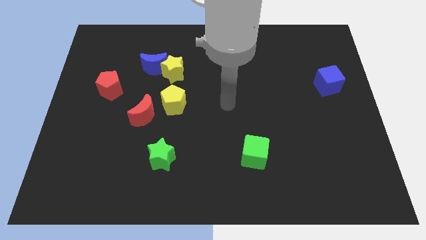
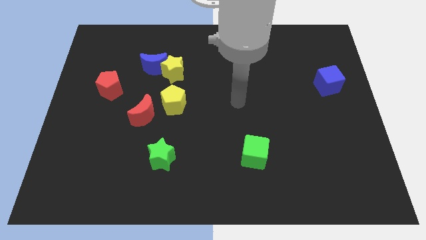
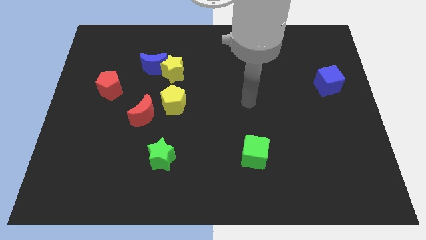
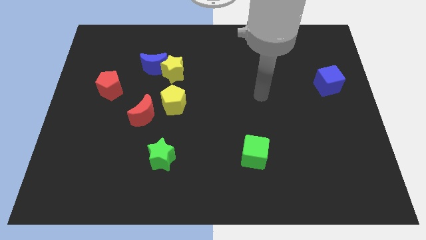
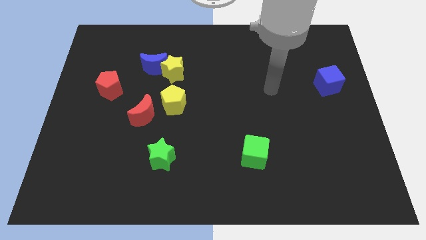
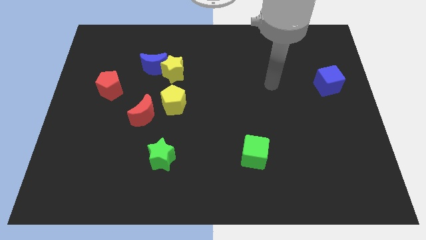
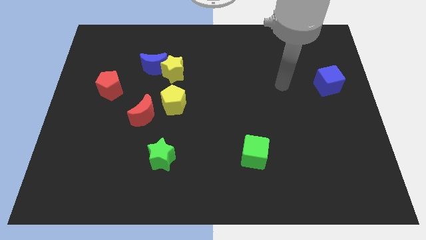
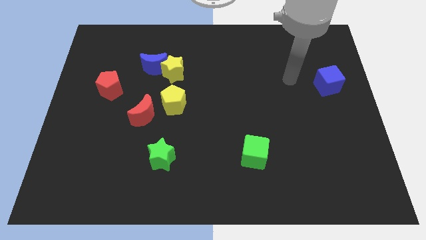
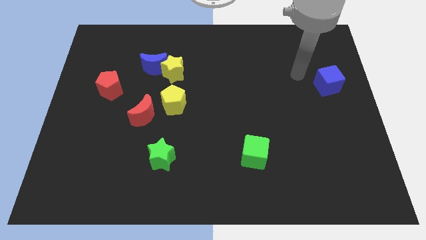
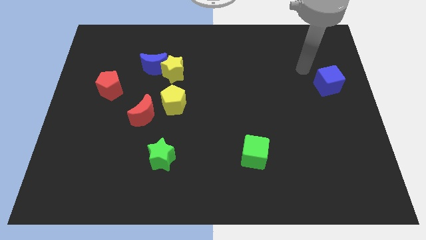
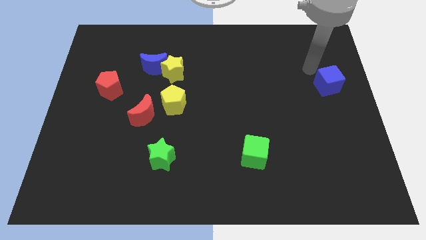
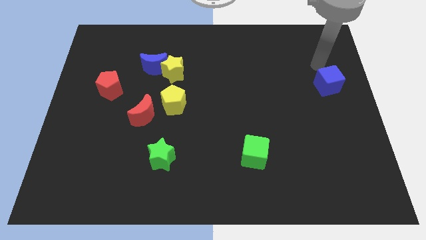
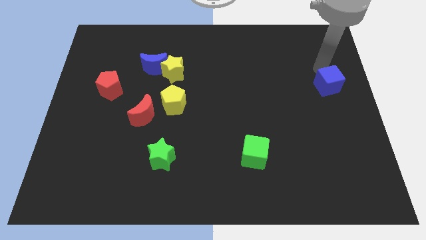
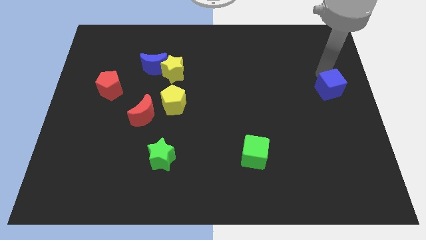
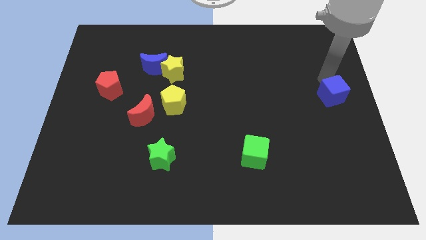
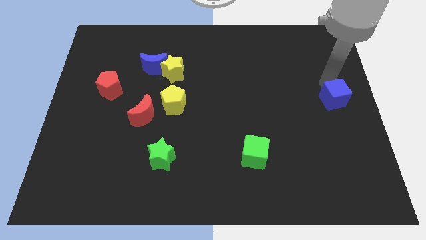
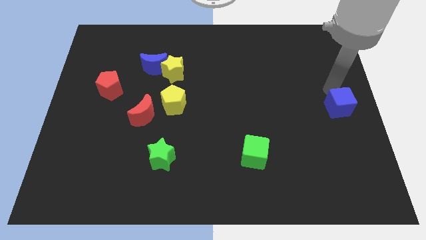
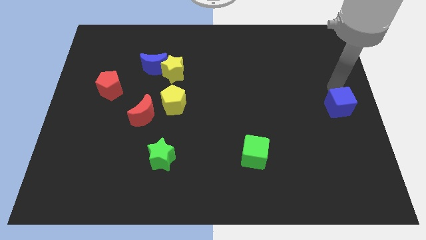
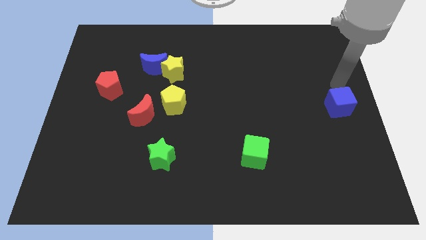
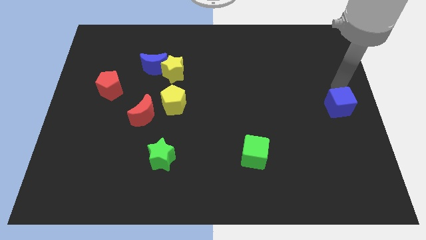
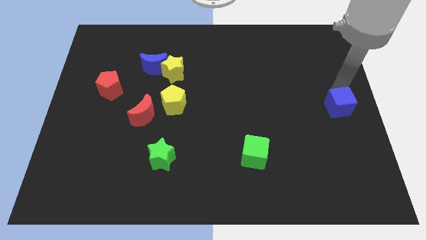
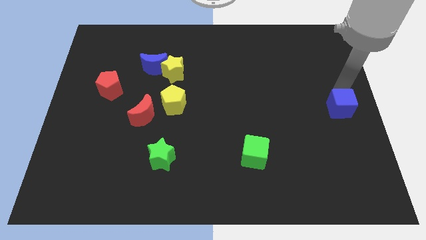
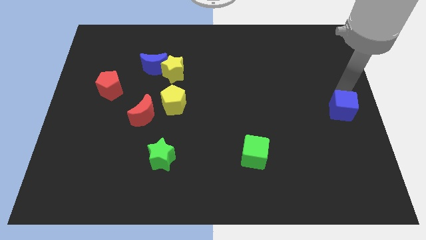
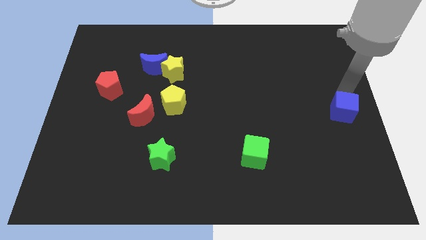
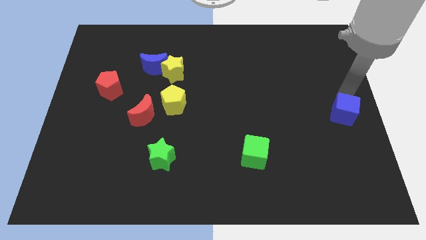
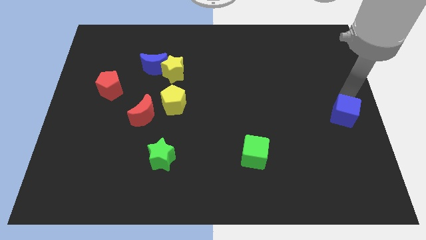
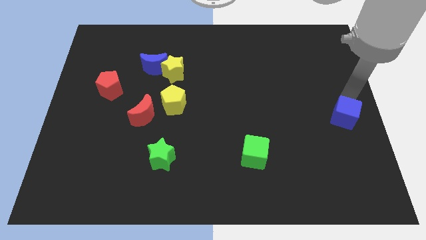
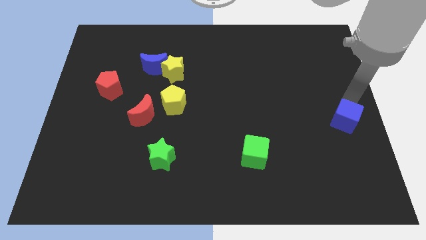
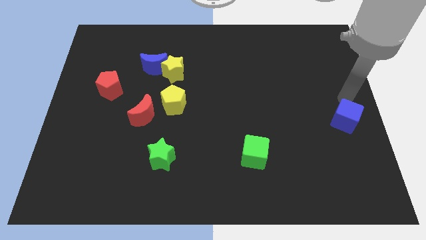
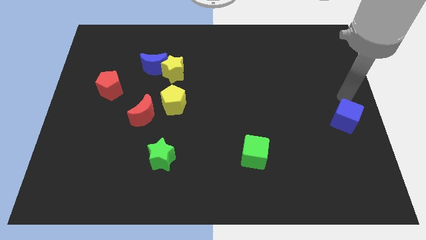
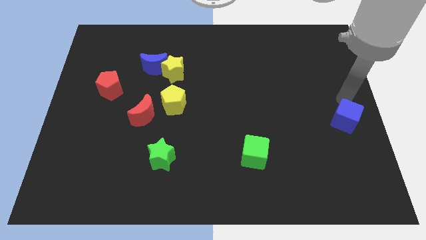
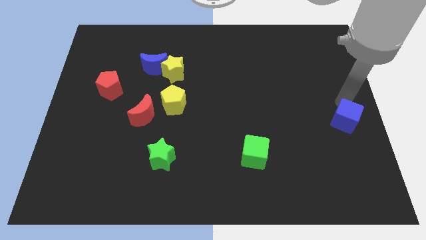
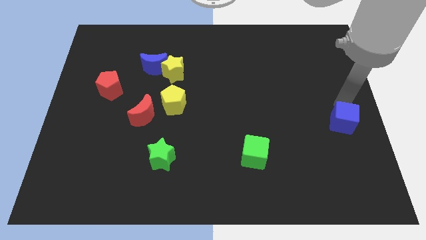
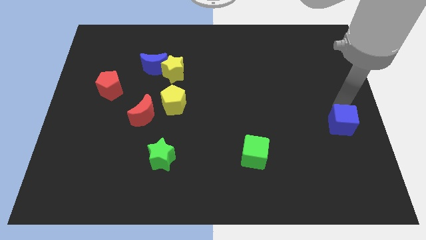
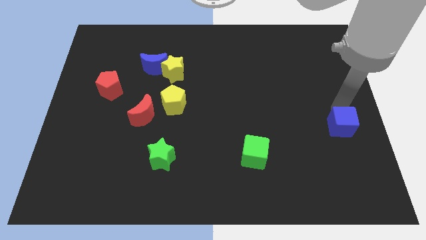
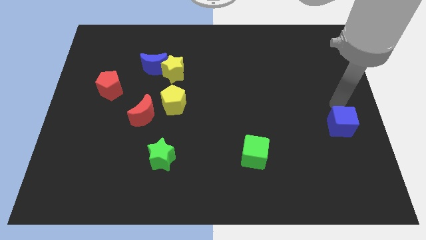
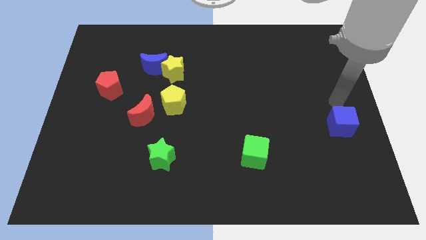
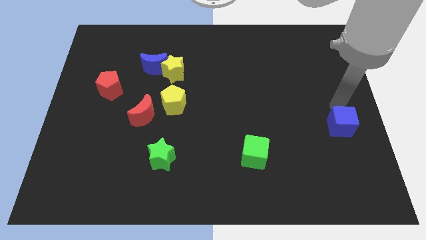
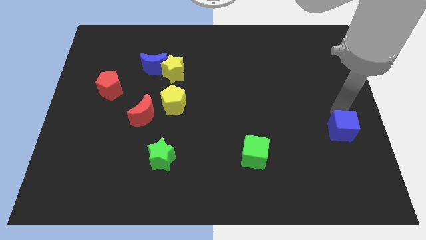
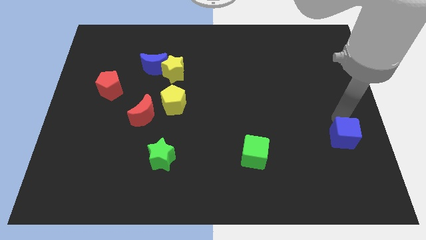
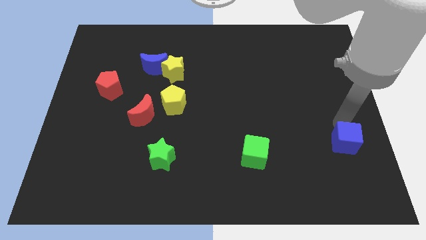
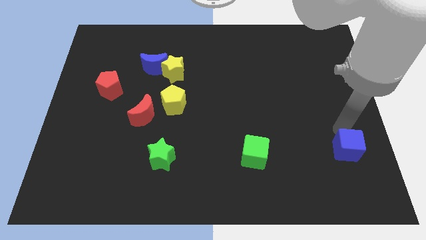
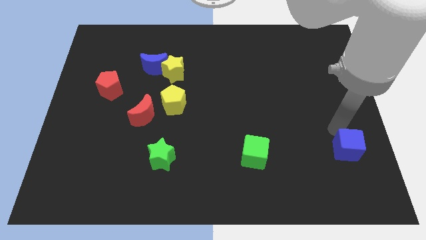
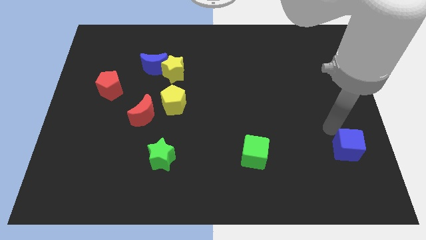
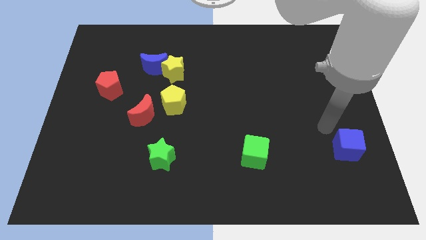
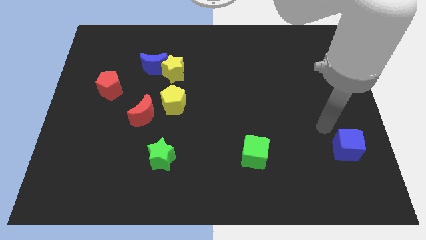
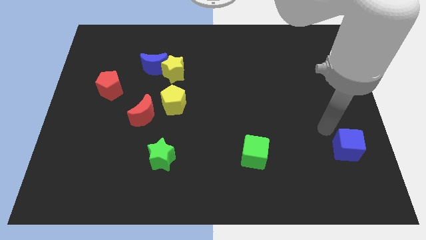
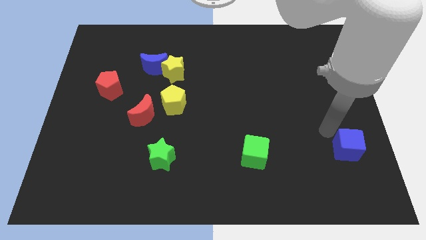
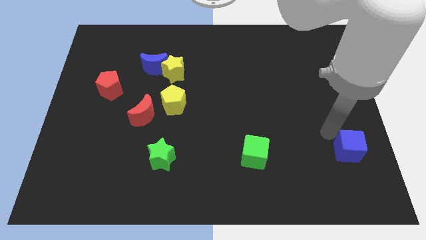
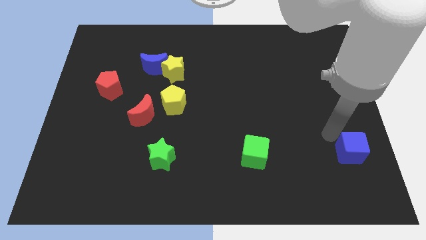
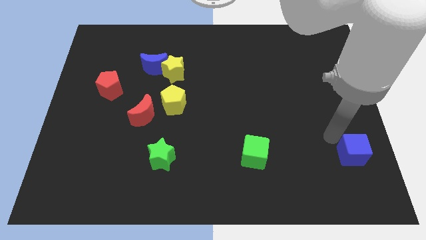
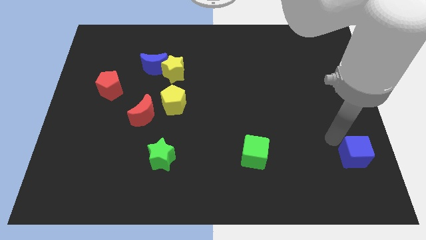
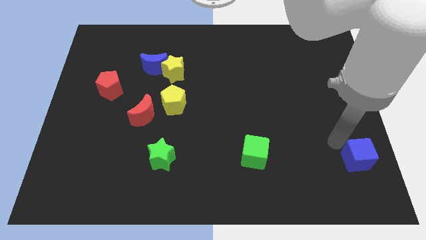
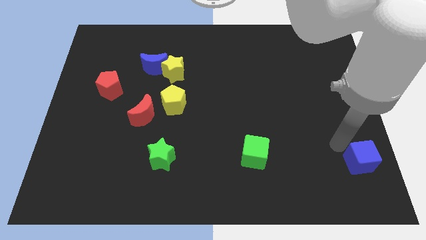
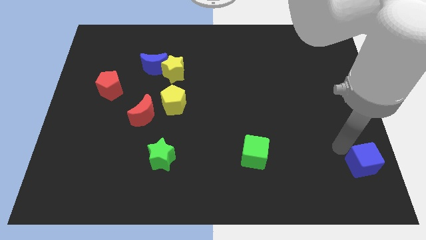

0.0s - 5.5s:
slide the blue cube to the bottom right

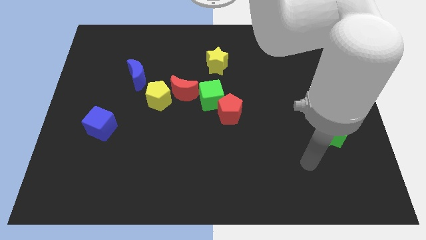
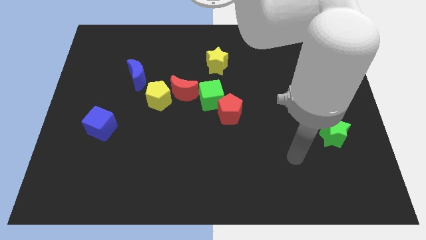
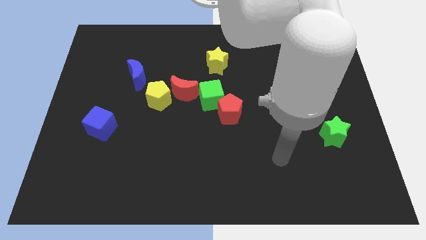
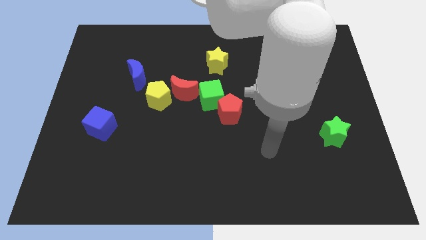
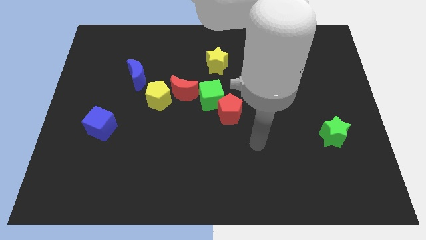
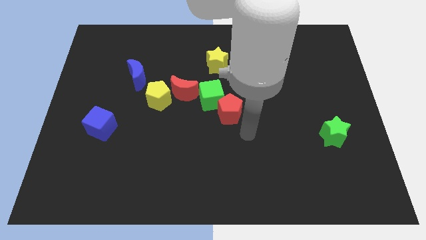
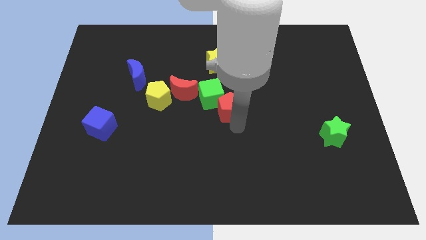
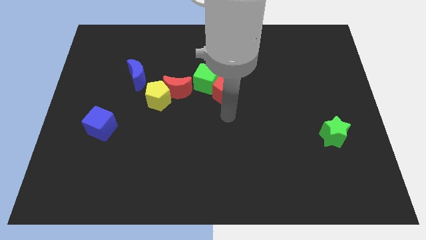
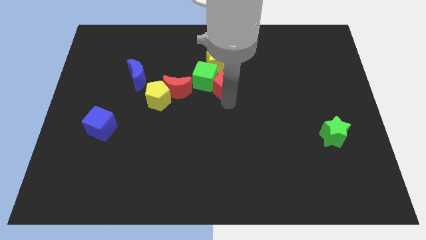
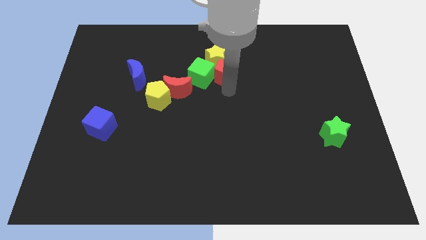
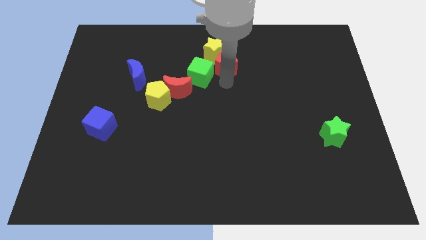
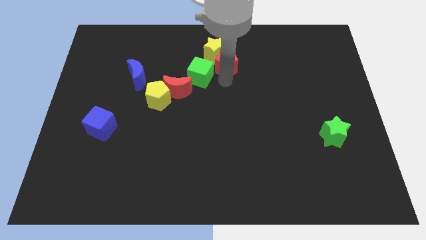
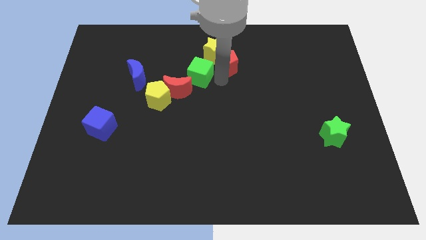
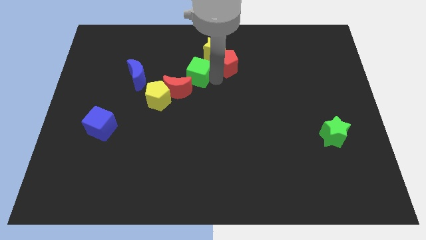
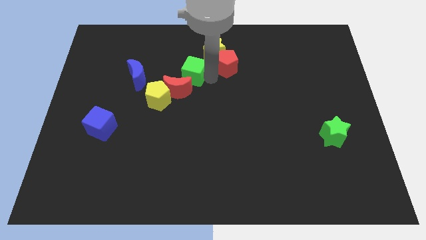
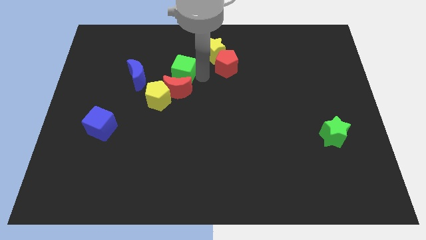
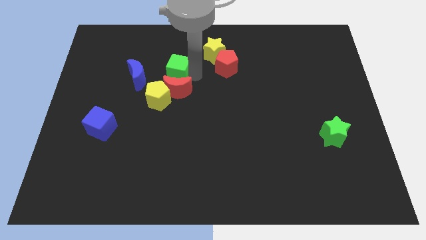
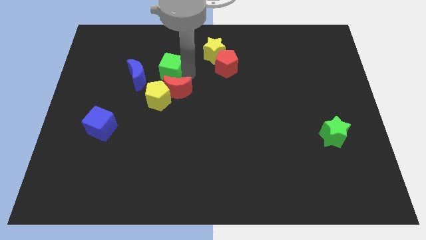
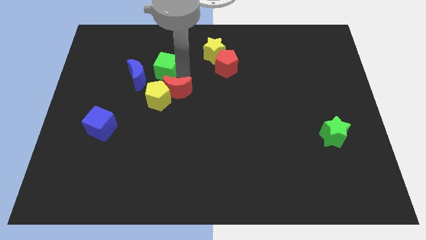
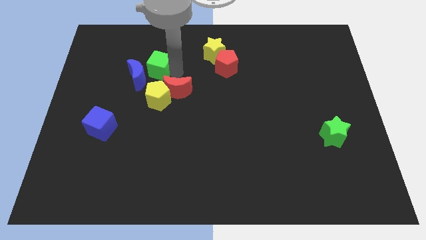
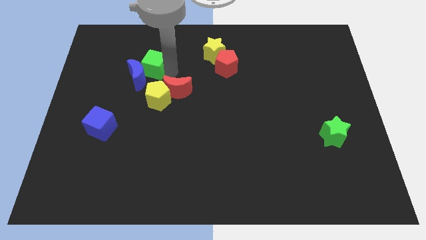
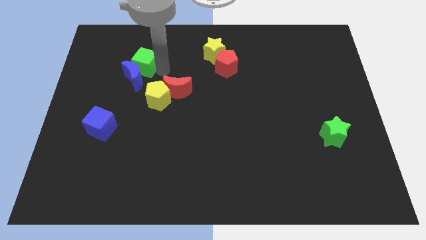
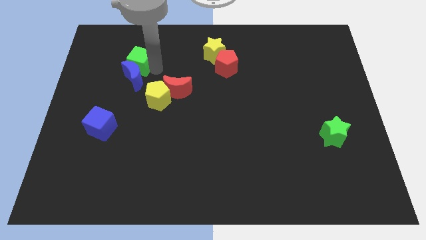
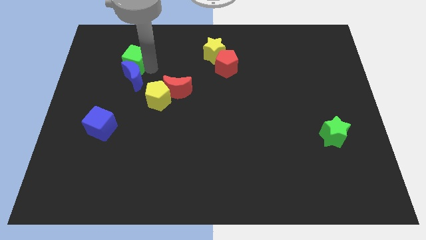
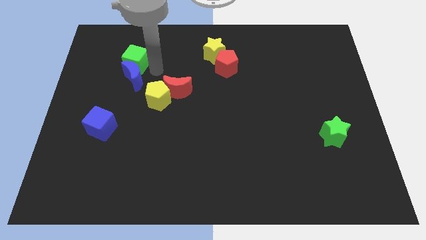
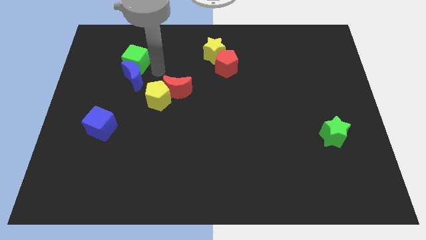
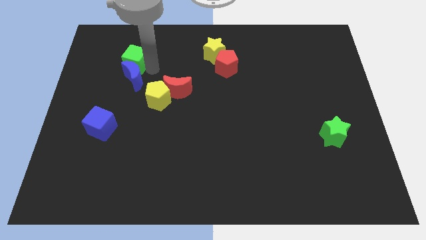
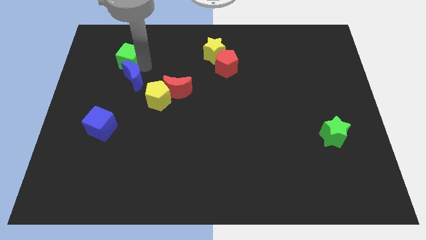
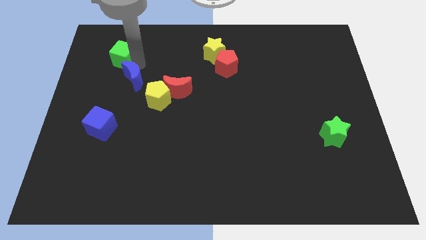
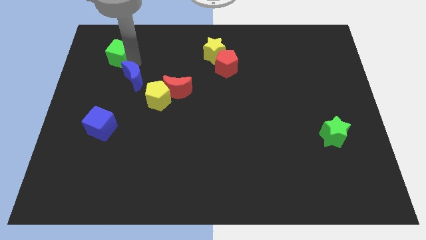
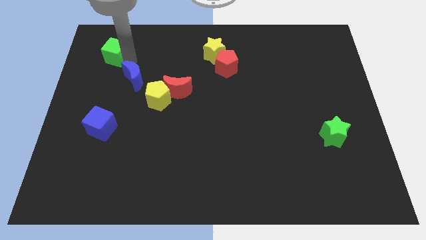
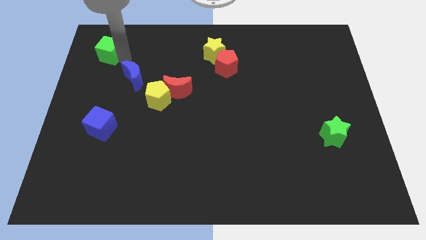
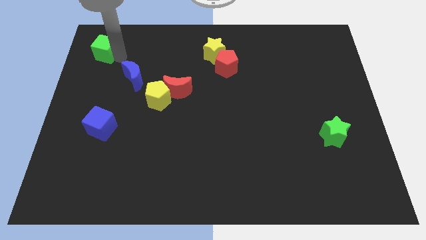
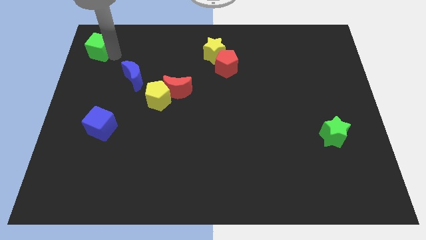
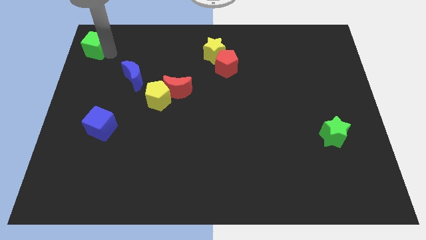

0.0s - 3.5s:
slide the green cube to the top left corner
